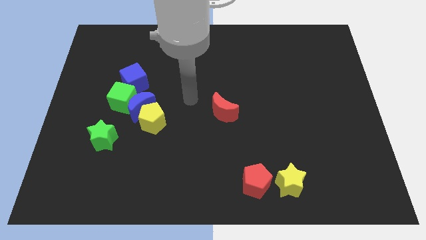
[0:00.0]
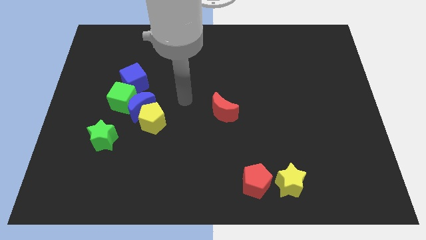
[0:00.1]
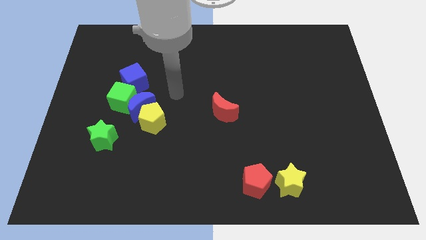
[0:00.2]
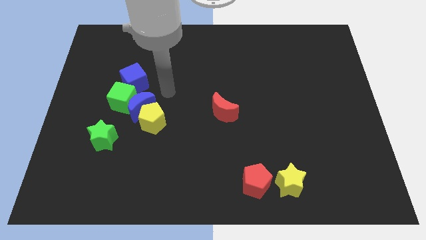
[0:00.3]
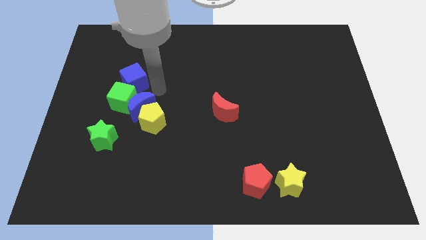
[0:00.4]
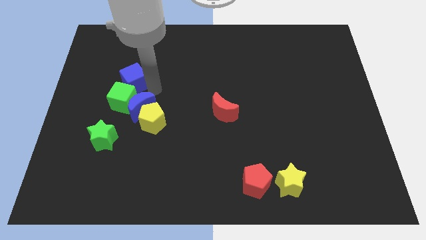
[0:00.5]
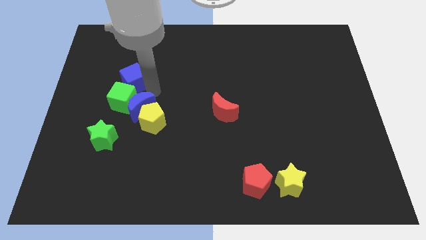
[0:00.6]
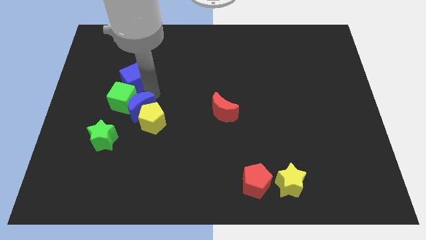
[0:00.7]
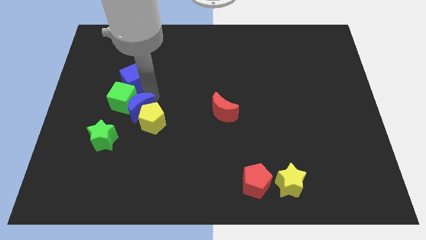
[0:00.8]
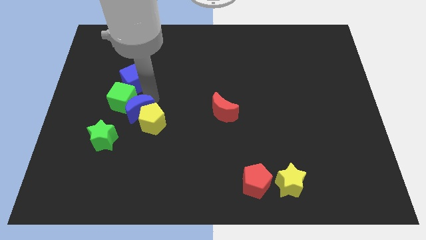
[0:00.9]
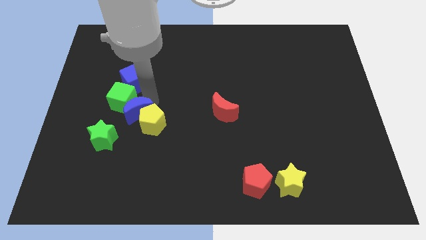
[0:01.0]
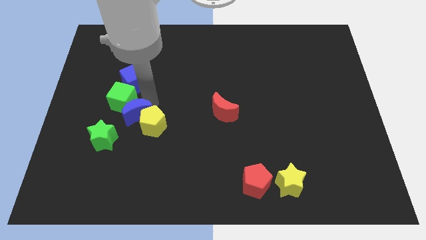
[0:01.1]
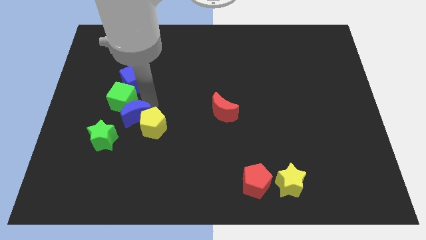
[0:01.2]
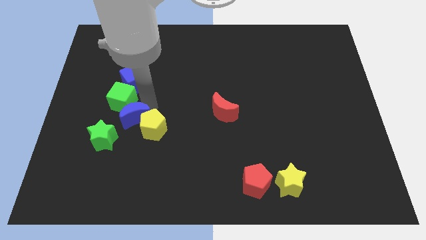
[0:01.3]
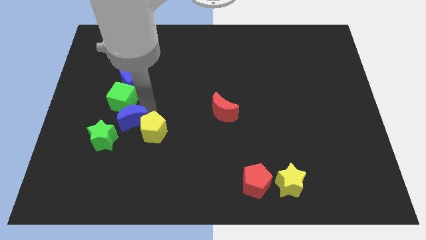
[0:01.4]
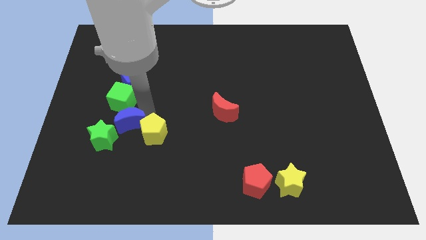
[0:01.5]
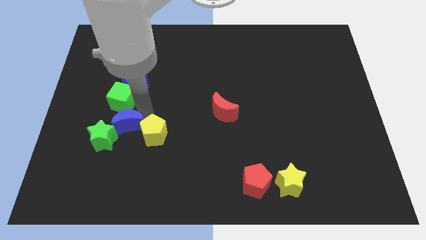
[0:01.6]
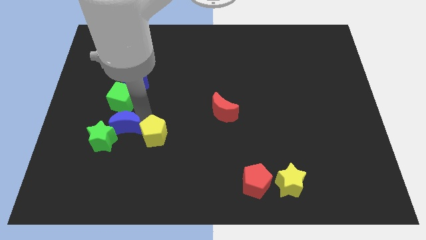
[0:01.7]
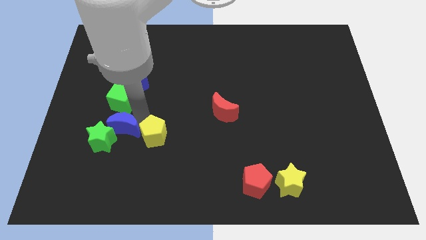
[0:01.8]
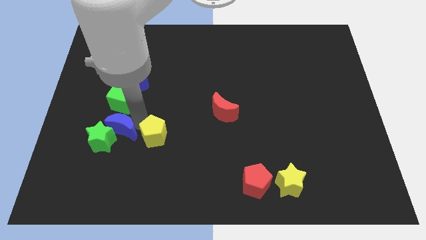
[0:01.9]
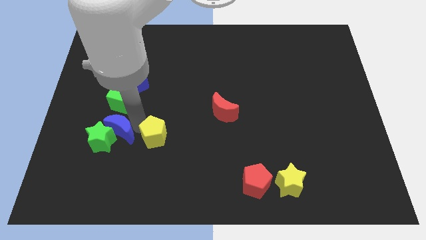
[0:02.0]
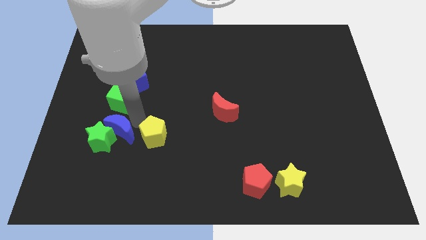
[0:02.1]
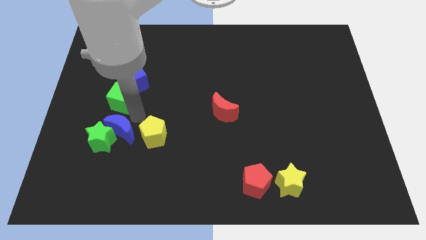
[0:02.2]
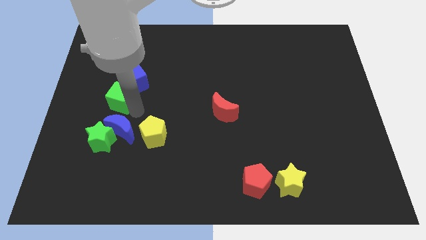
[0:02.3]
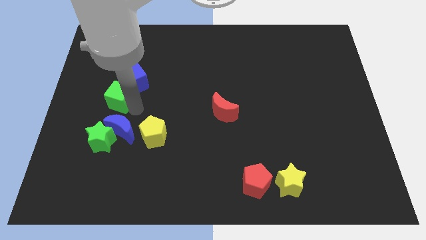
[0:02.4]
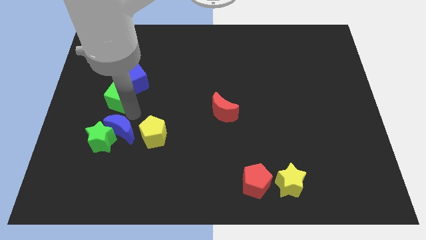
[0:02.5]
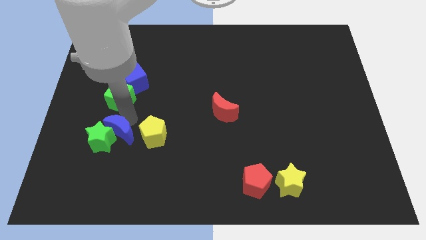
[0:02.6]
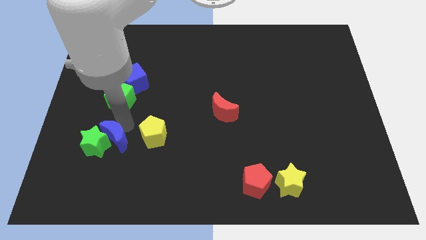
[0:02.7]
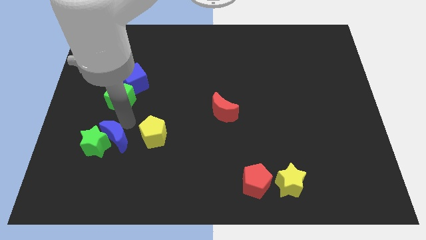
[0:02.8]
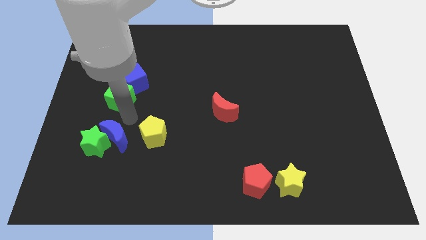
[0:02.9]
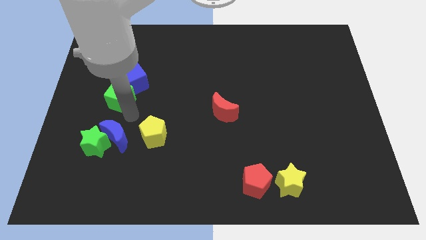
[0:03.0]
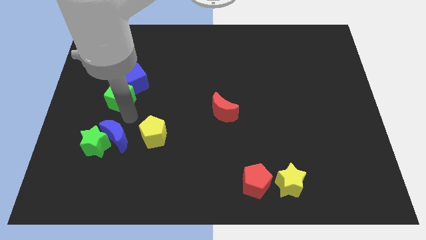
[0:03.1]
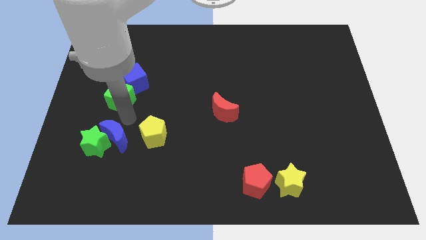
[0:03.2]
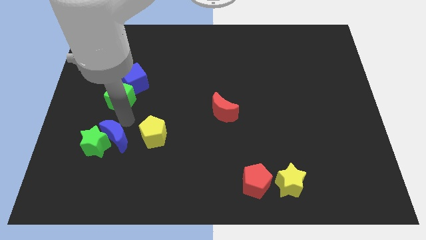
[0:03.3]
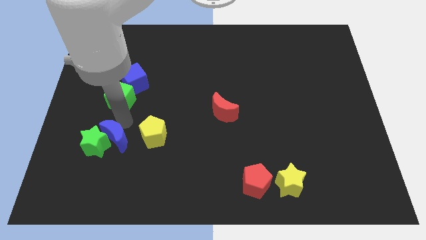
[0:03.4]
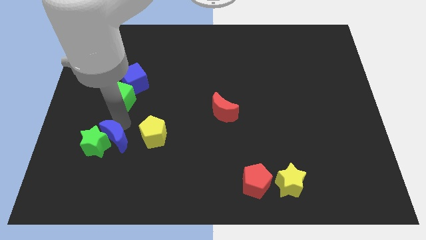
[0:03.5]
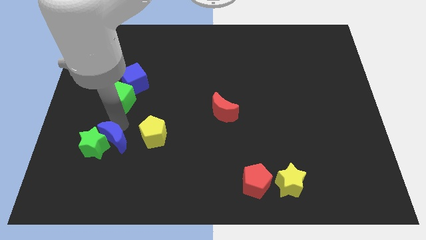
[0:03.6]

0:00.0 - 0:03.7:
move the blue moon away from the group

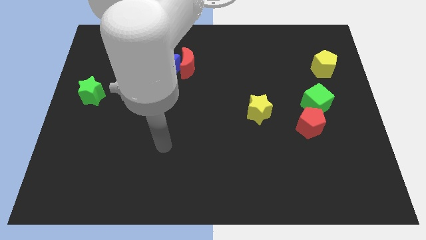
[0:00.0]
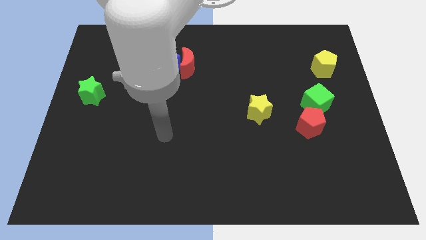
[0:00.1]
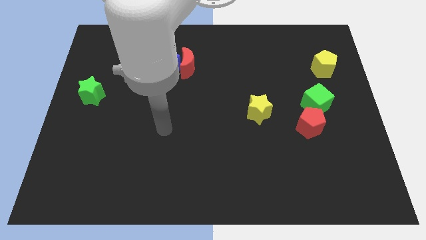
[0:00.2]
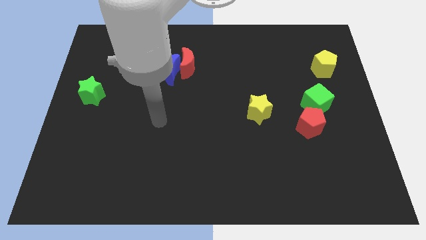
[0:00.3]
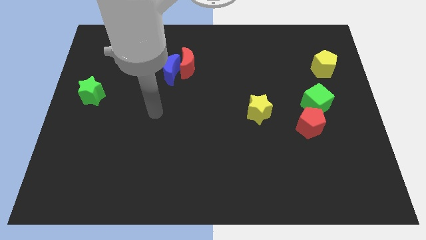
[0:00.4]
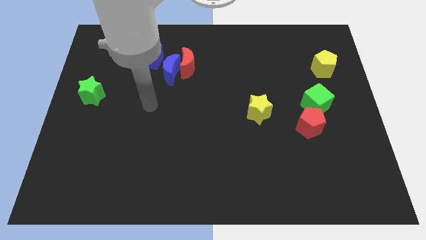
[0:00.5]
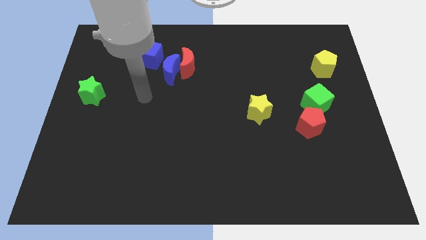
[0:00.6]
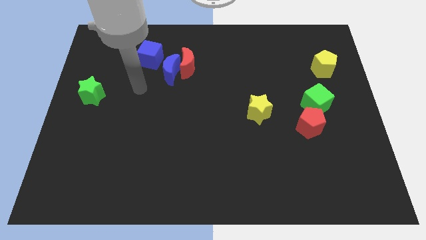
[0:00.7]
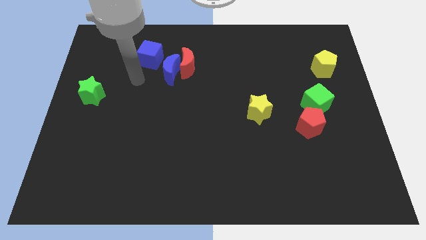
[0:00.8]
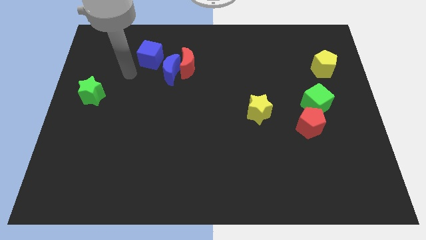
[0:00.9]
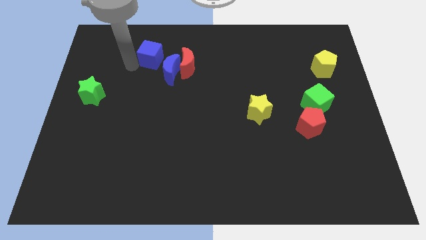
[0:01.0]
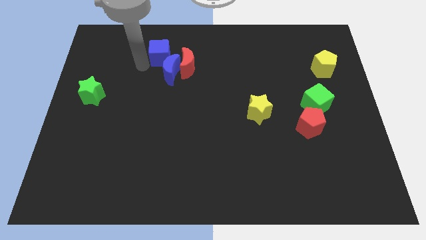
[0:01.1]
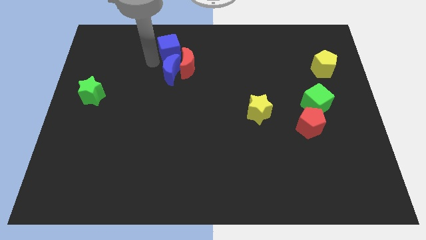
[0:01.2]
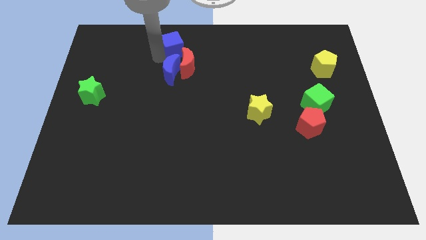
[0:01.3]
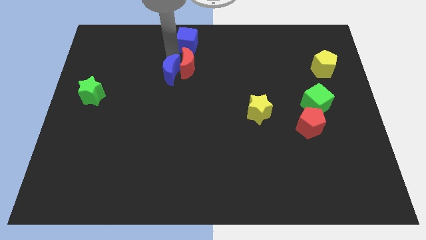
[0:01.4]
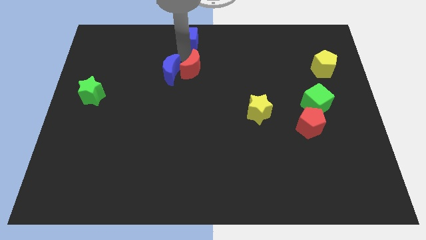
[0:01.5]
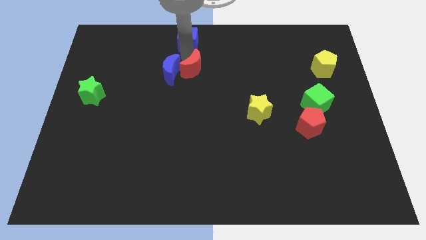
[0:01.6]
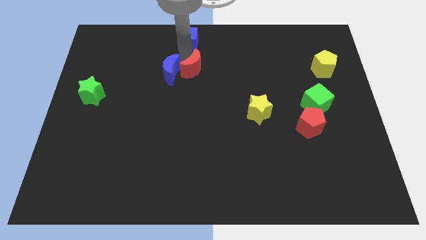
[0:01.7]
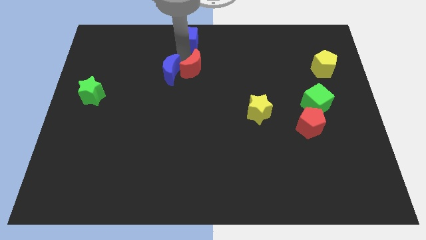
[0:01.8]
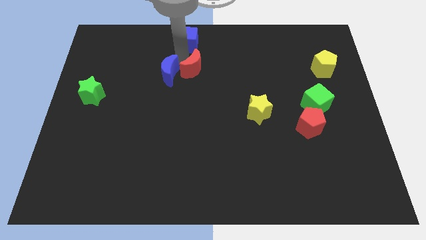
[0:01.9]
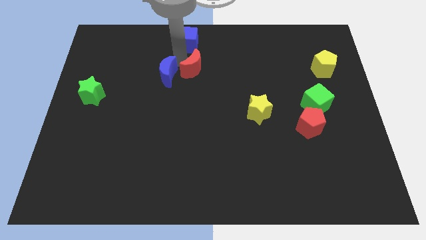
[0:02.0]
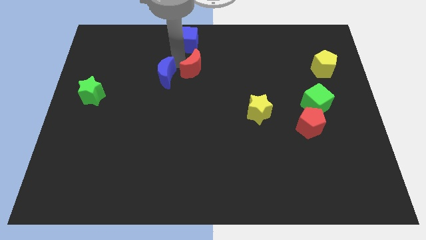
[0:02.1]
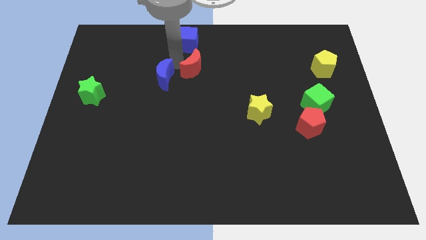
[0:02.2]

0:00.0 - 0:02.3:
move the blue moon away from the red moon and blue cube

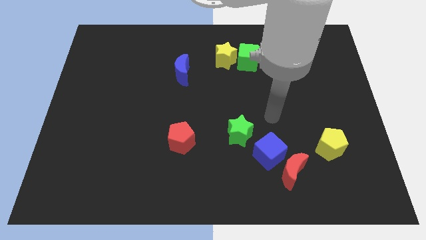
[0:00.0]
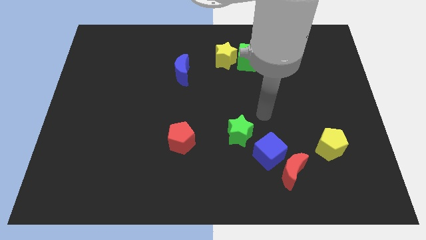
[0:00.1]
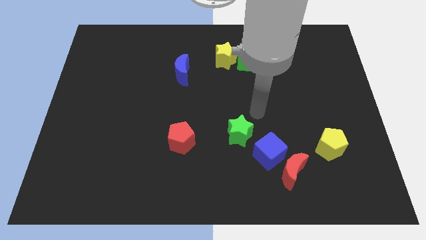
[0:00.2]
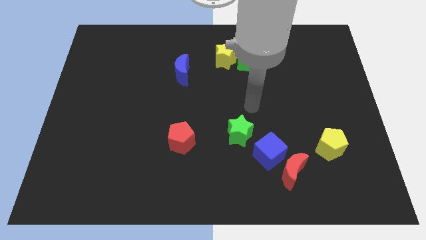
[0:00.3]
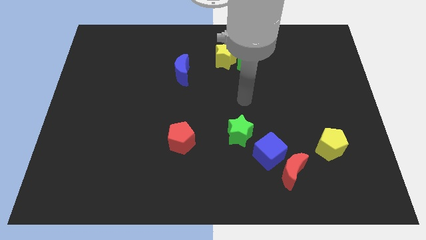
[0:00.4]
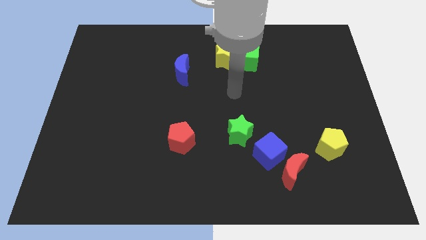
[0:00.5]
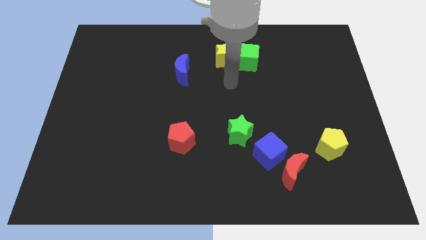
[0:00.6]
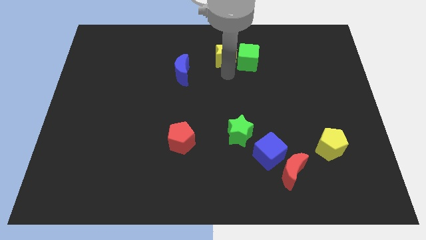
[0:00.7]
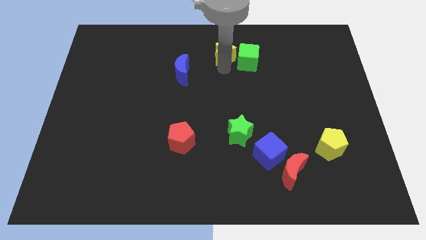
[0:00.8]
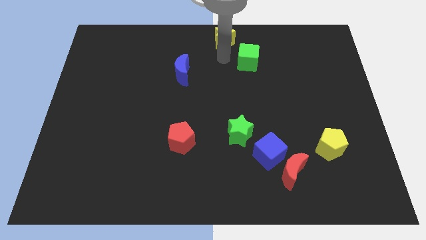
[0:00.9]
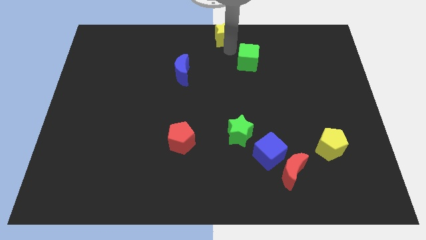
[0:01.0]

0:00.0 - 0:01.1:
separate the green cube from the yellow star

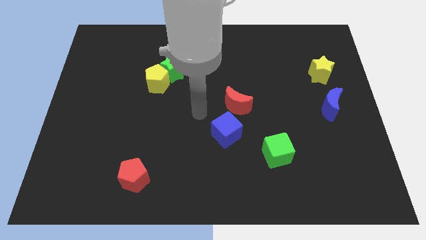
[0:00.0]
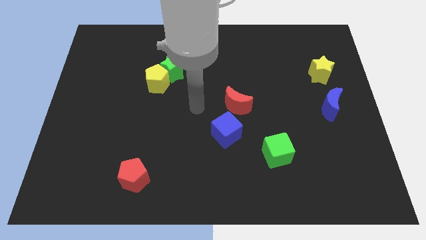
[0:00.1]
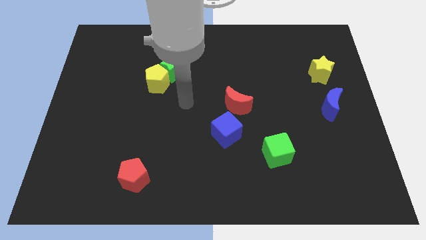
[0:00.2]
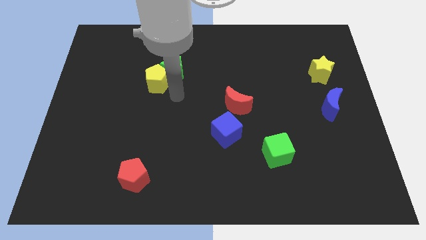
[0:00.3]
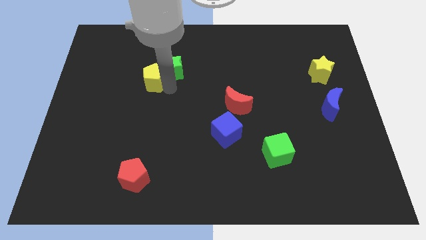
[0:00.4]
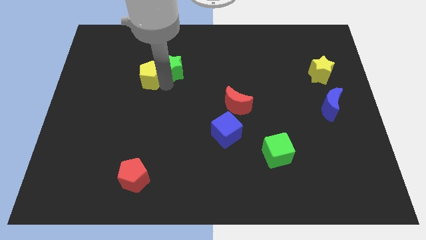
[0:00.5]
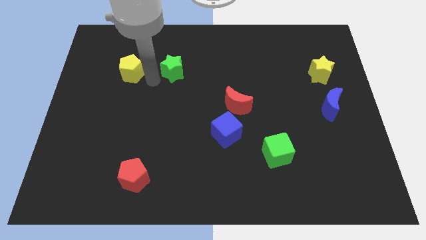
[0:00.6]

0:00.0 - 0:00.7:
pull the green star apart from the yellow pentagon

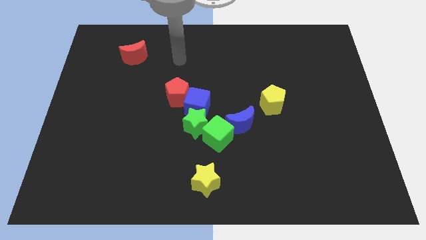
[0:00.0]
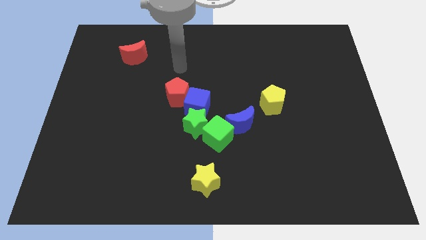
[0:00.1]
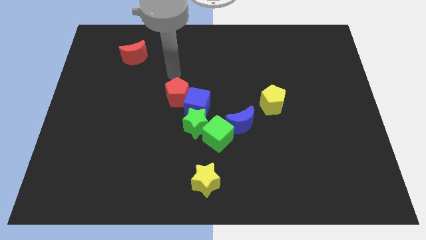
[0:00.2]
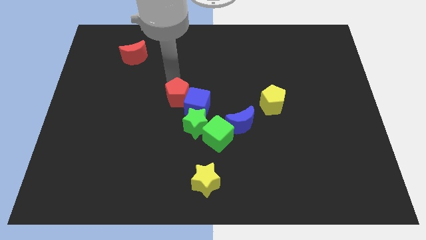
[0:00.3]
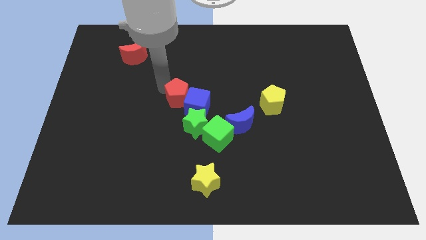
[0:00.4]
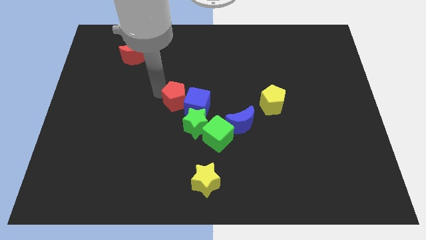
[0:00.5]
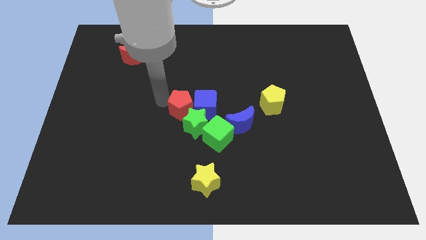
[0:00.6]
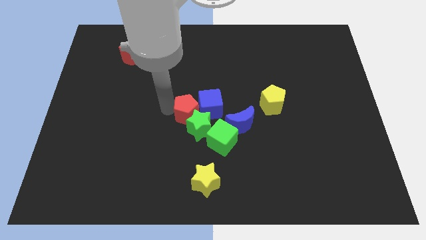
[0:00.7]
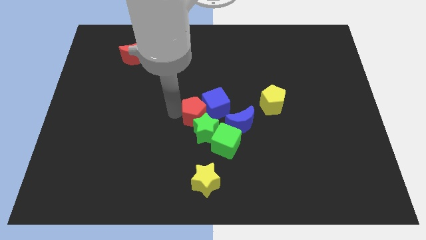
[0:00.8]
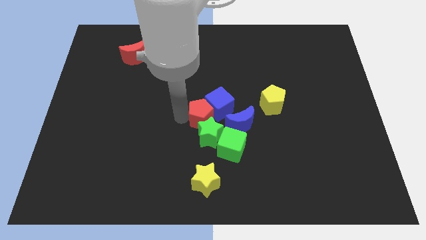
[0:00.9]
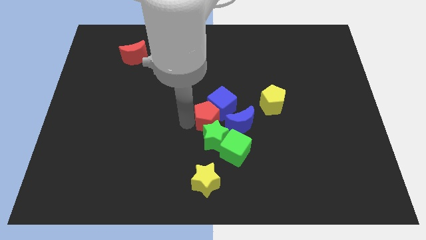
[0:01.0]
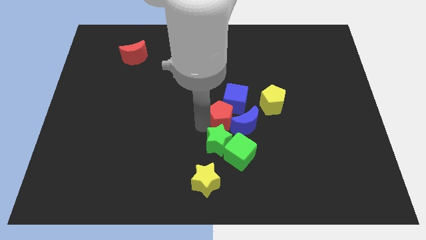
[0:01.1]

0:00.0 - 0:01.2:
separate the blue cube from the green star, red pentagon, and green cube

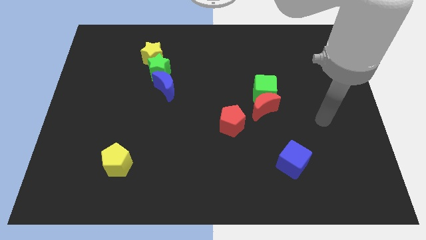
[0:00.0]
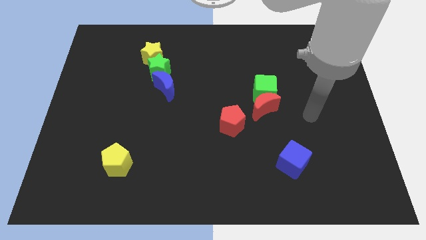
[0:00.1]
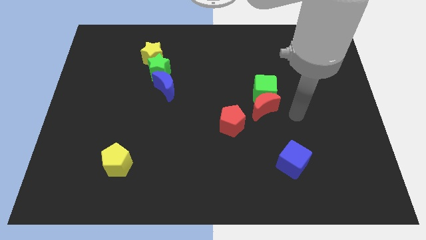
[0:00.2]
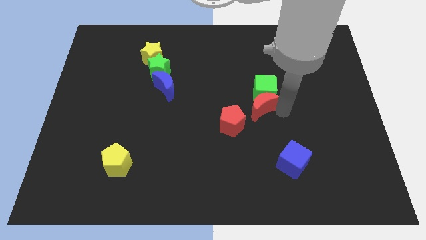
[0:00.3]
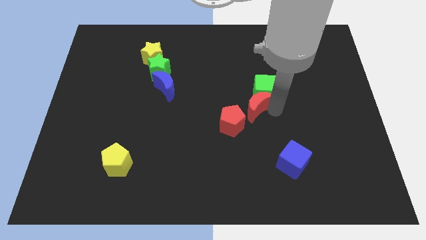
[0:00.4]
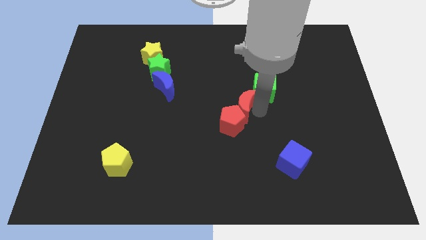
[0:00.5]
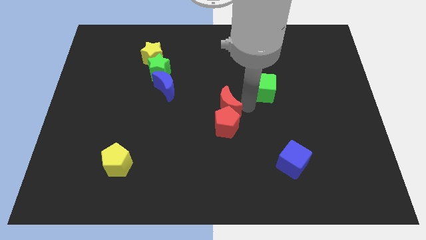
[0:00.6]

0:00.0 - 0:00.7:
separate the green cube from the red moon
